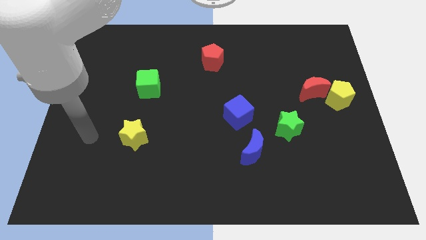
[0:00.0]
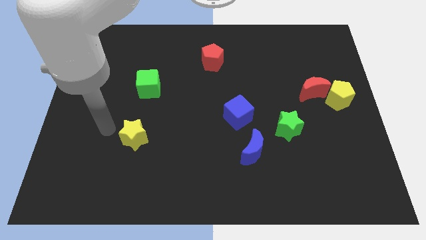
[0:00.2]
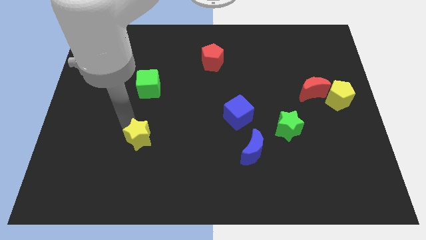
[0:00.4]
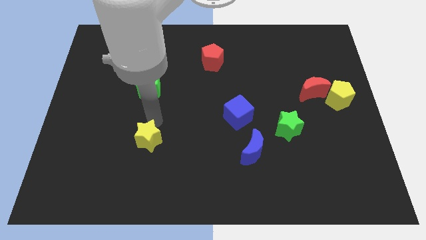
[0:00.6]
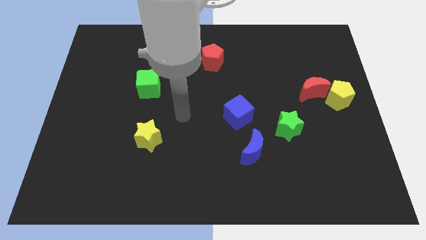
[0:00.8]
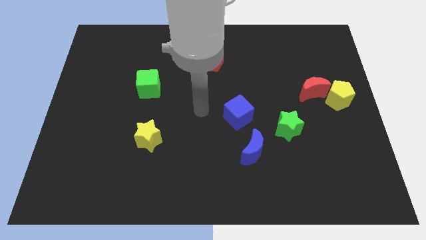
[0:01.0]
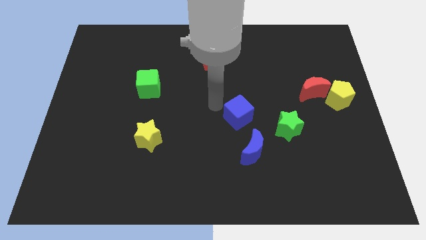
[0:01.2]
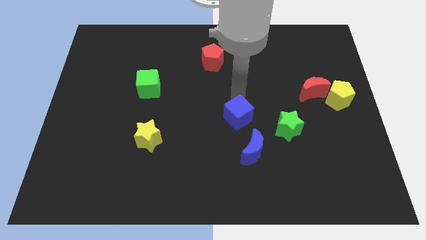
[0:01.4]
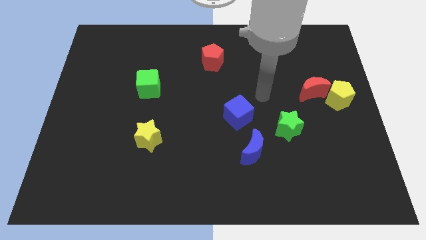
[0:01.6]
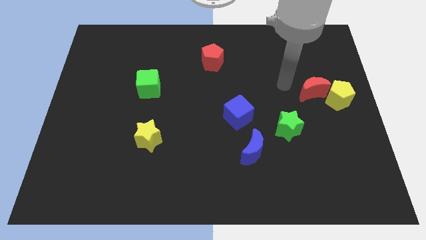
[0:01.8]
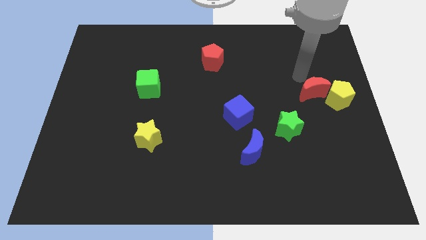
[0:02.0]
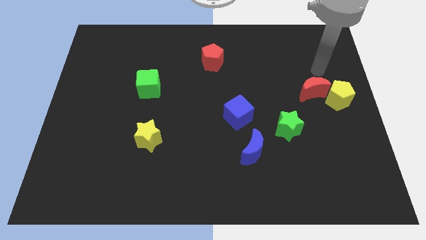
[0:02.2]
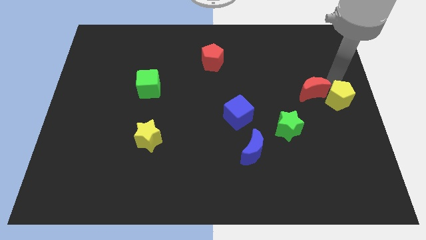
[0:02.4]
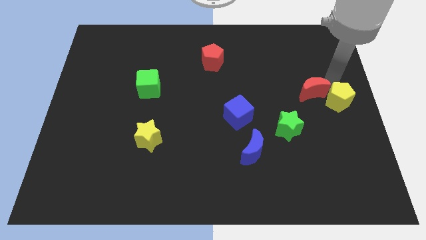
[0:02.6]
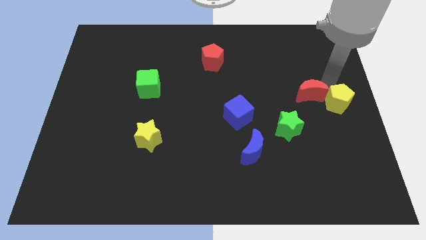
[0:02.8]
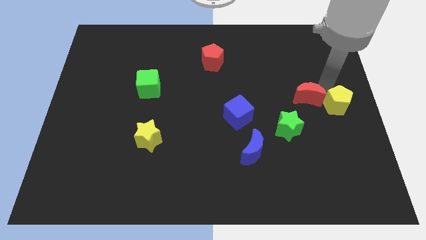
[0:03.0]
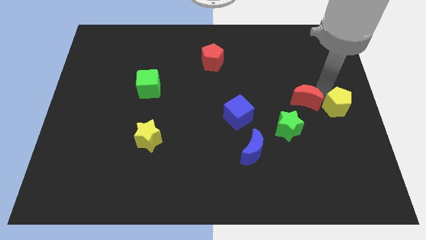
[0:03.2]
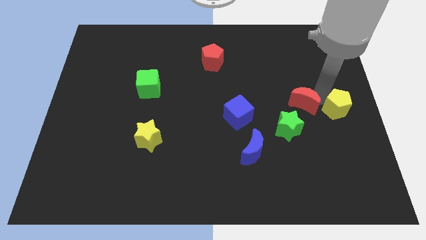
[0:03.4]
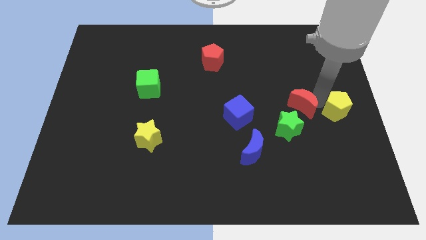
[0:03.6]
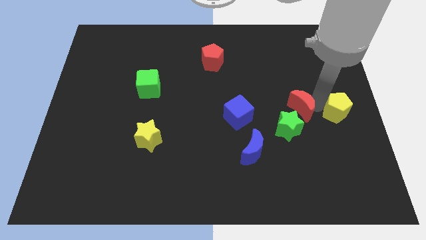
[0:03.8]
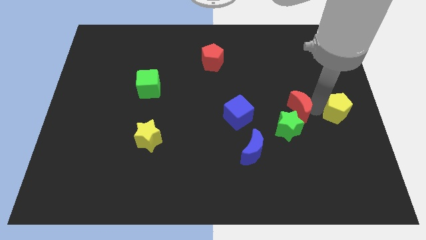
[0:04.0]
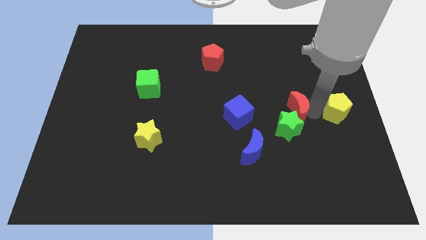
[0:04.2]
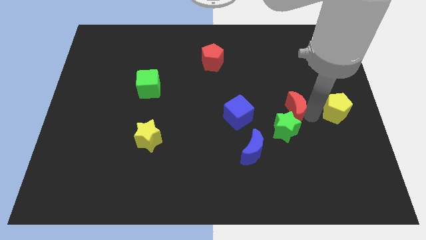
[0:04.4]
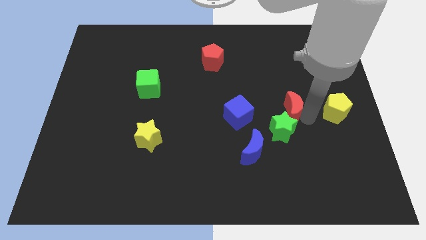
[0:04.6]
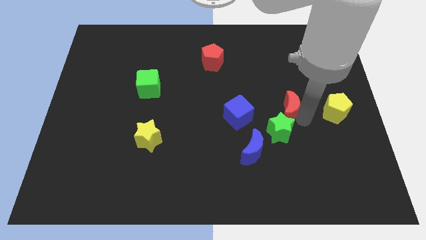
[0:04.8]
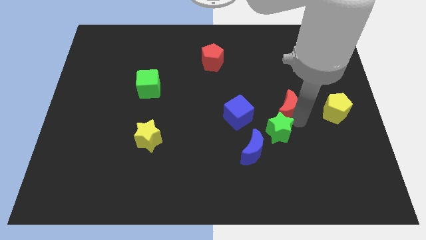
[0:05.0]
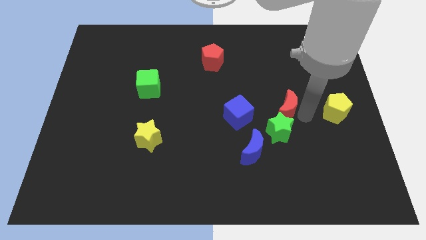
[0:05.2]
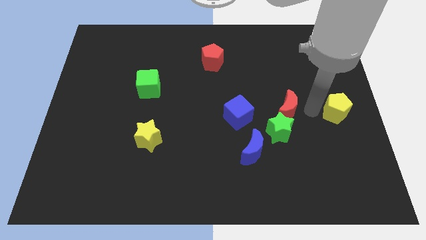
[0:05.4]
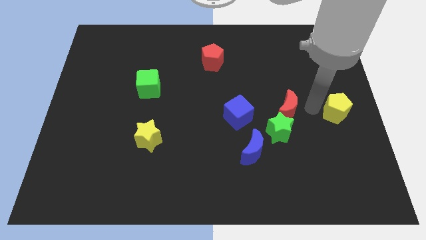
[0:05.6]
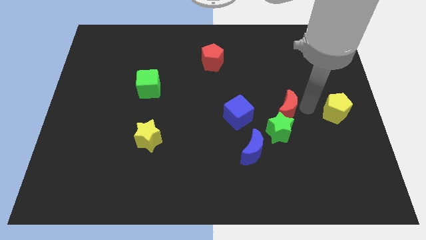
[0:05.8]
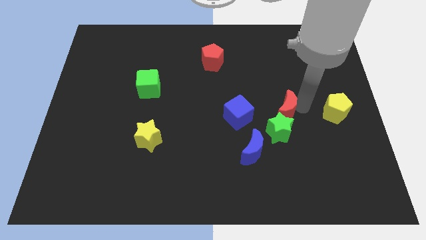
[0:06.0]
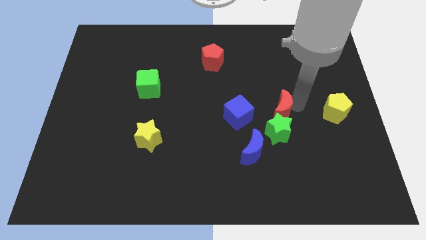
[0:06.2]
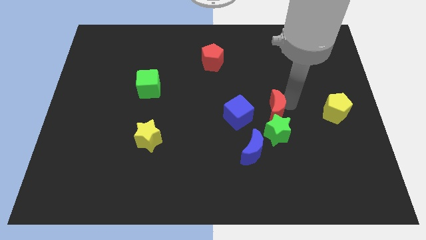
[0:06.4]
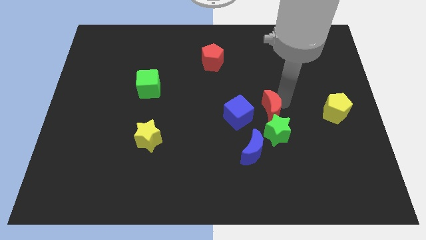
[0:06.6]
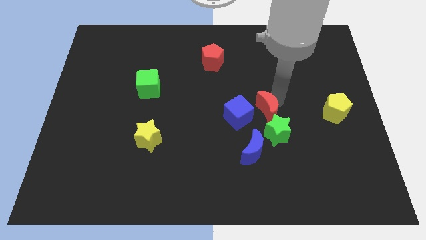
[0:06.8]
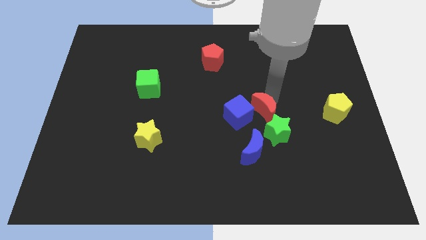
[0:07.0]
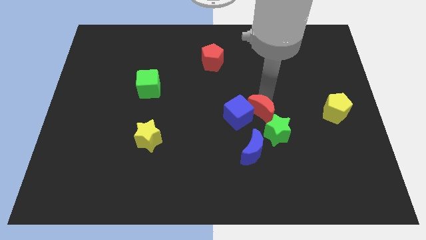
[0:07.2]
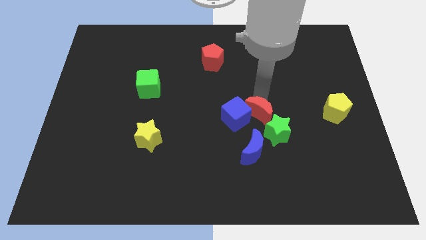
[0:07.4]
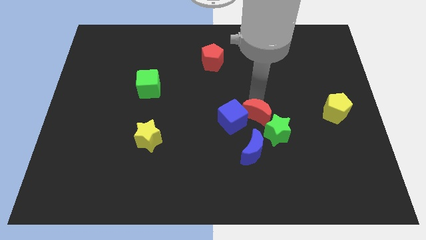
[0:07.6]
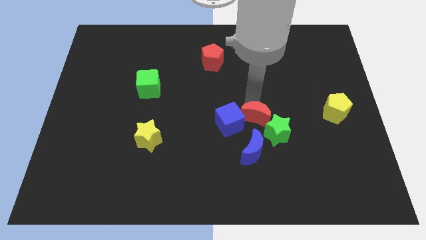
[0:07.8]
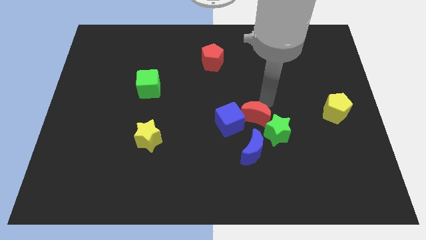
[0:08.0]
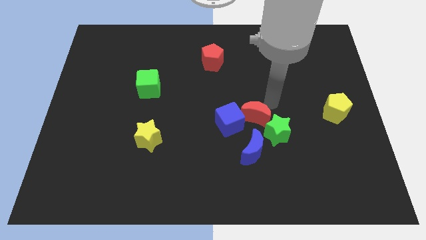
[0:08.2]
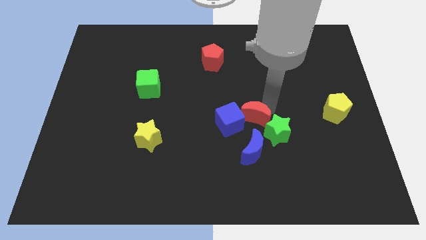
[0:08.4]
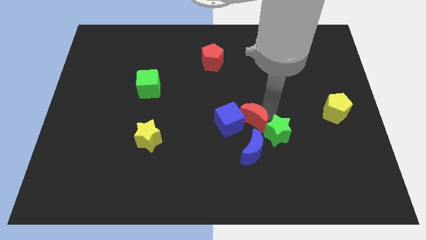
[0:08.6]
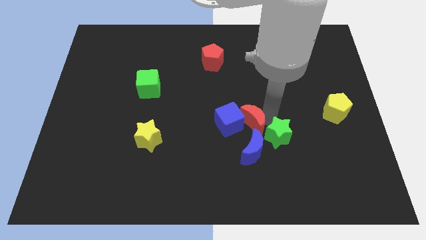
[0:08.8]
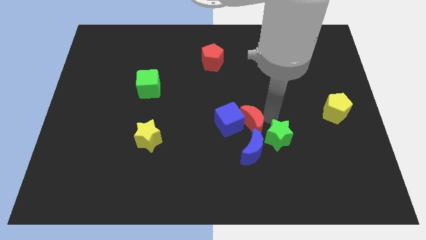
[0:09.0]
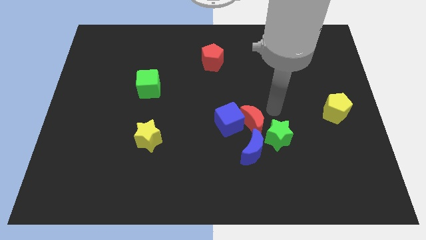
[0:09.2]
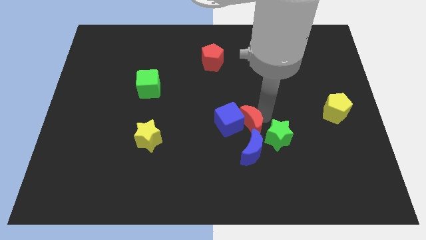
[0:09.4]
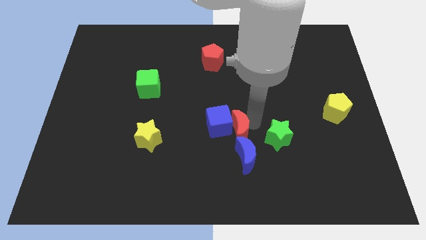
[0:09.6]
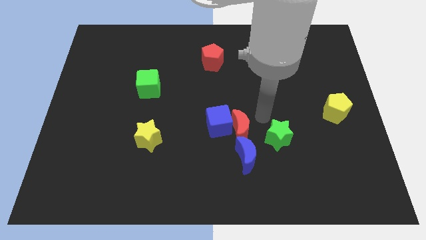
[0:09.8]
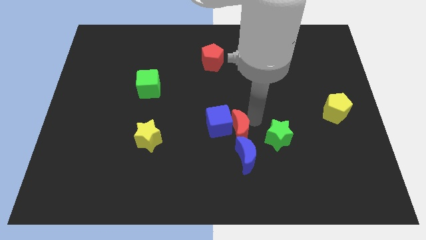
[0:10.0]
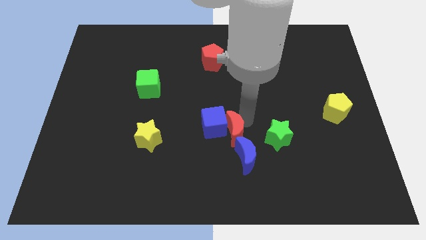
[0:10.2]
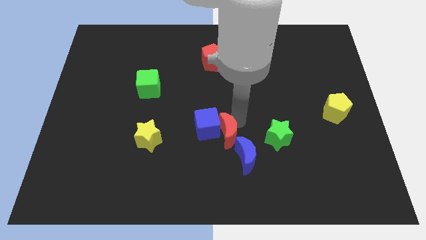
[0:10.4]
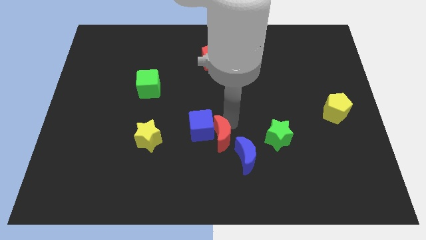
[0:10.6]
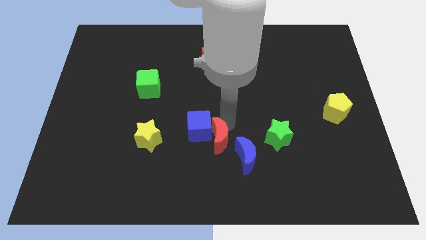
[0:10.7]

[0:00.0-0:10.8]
push the red moon to the left of the blue moon

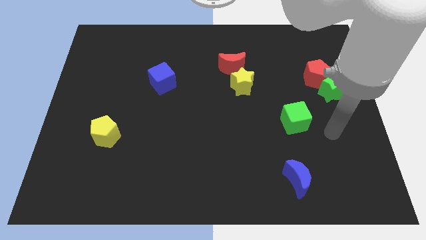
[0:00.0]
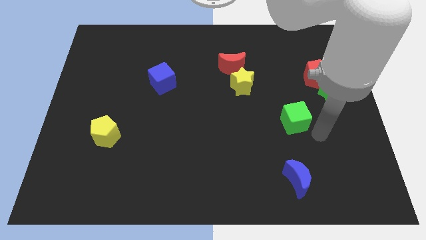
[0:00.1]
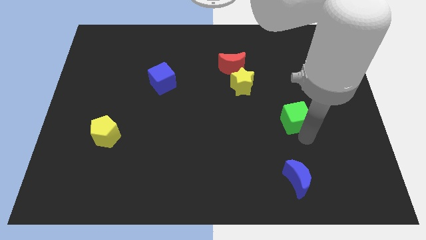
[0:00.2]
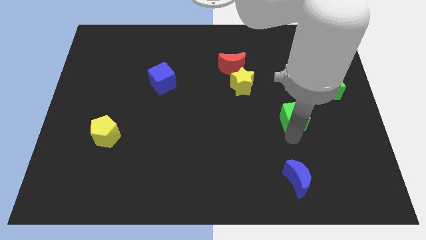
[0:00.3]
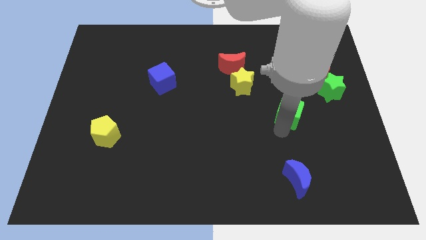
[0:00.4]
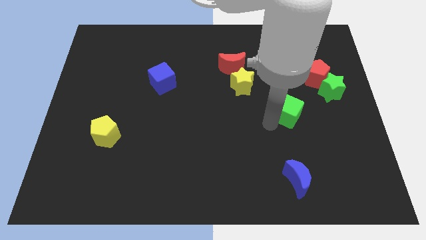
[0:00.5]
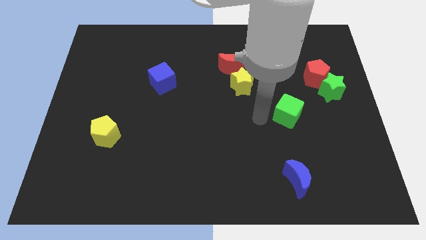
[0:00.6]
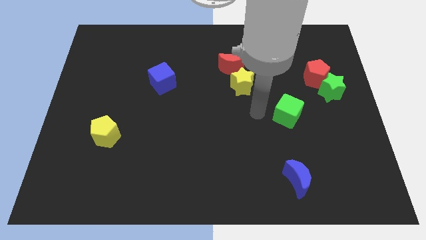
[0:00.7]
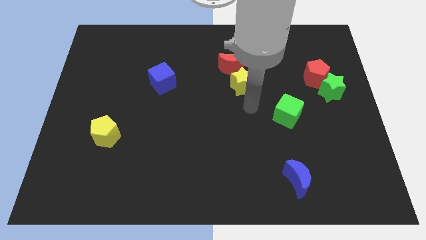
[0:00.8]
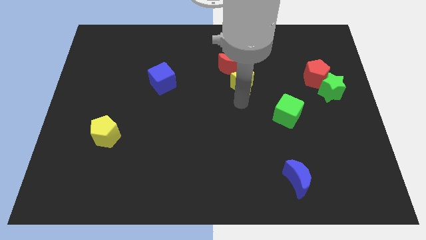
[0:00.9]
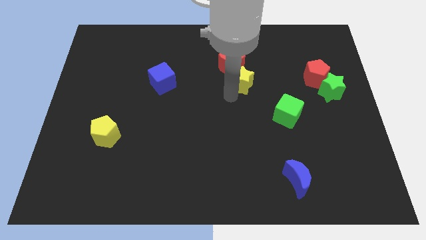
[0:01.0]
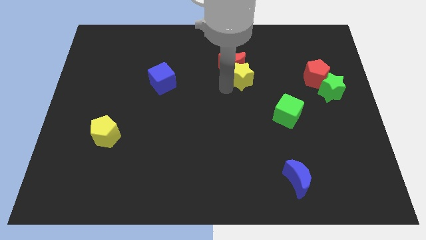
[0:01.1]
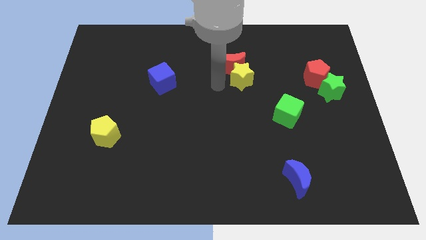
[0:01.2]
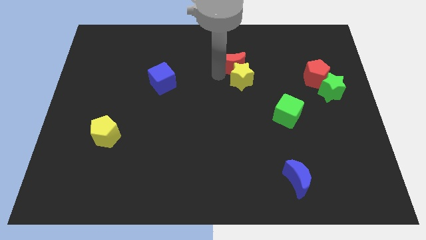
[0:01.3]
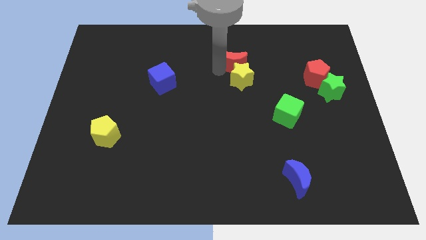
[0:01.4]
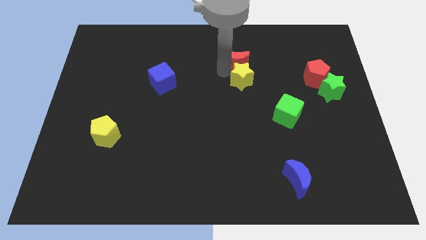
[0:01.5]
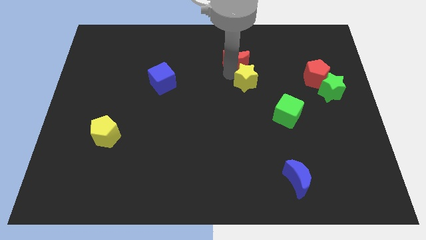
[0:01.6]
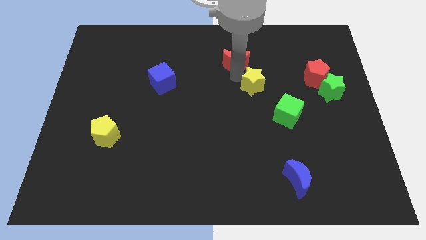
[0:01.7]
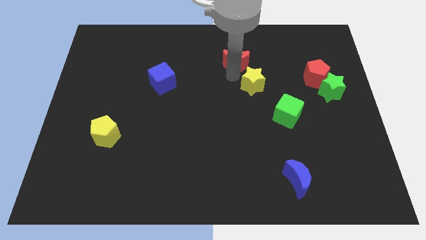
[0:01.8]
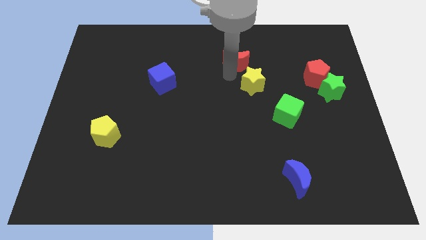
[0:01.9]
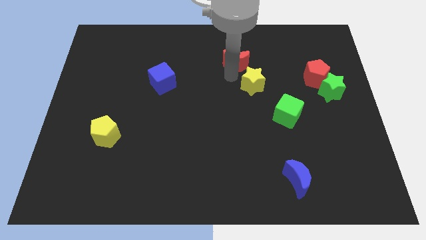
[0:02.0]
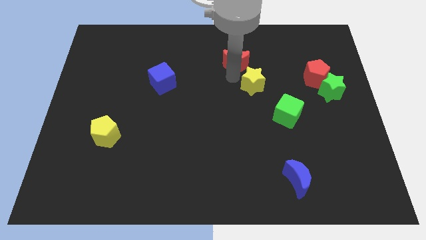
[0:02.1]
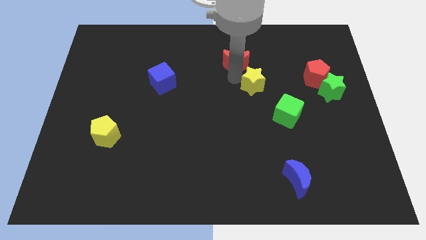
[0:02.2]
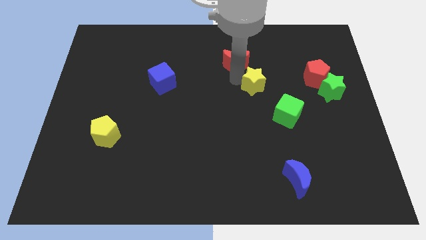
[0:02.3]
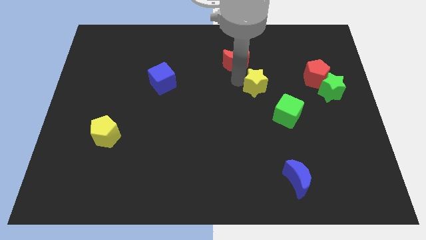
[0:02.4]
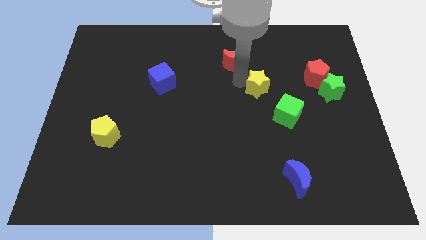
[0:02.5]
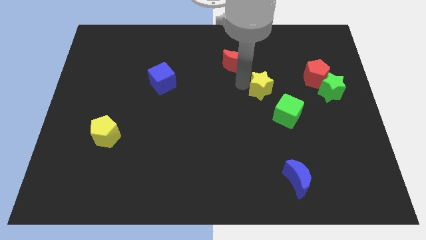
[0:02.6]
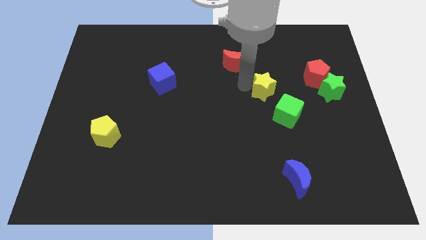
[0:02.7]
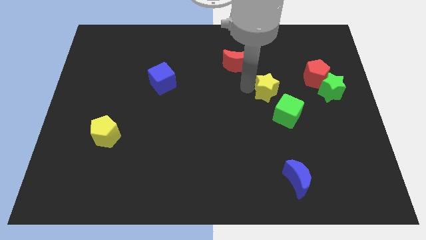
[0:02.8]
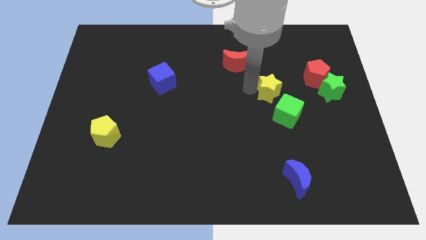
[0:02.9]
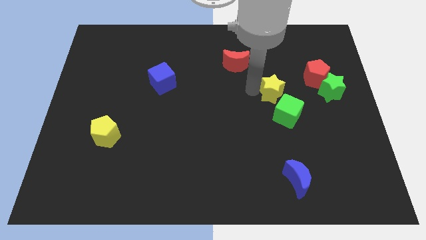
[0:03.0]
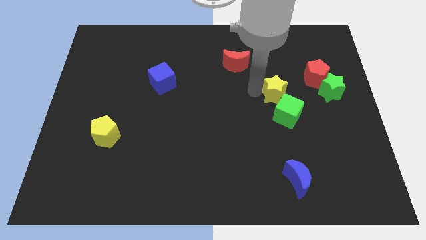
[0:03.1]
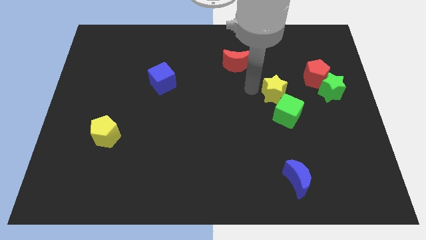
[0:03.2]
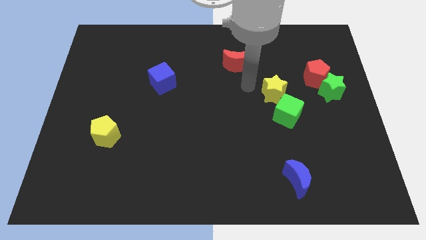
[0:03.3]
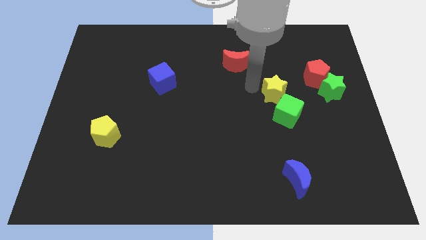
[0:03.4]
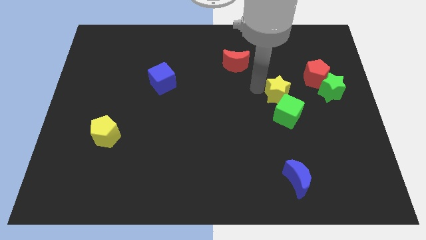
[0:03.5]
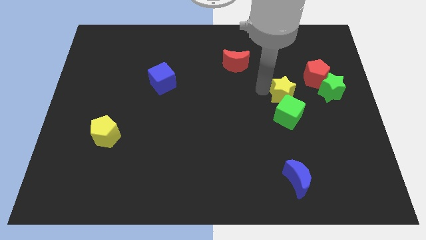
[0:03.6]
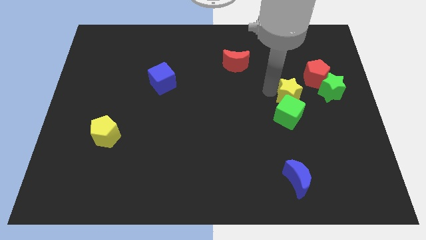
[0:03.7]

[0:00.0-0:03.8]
slide the yellow star to the top right side of the green cube
